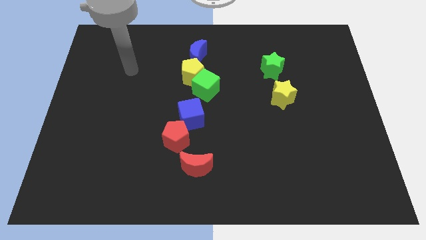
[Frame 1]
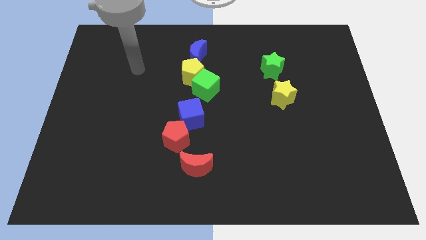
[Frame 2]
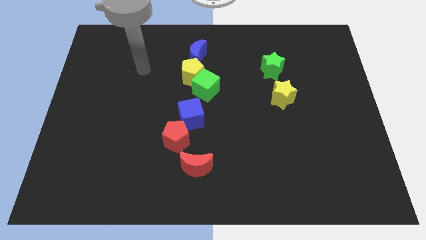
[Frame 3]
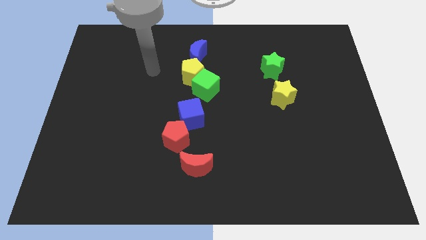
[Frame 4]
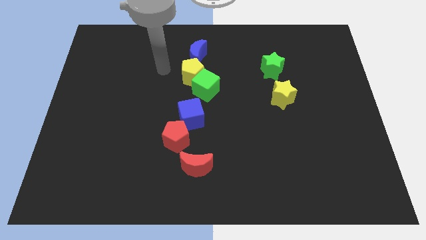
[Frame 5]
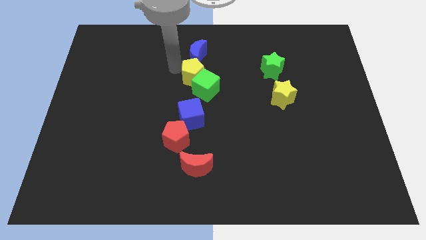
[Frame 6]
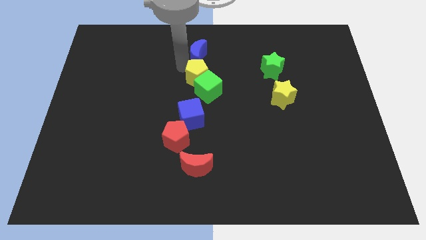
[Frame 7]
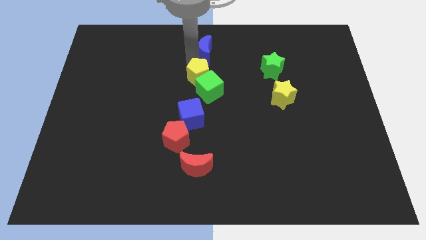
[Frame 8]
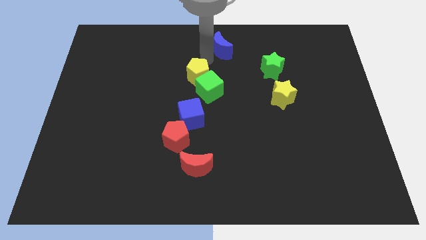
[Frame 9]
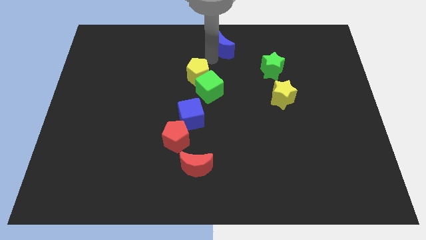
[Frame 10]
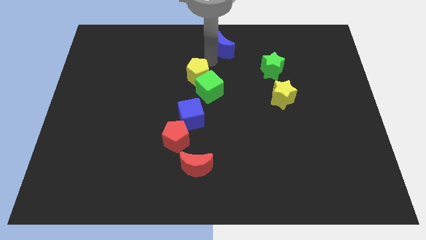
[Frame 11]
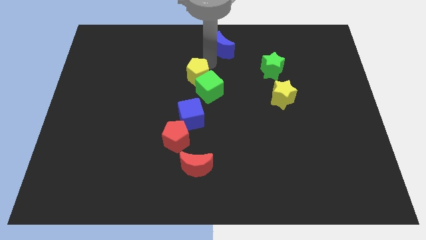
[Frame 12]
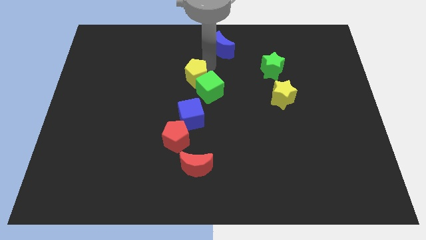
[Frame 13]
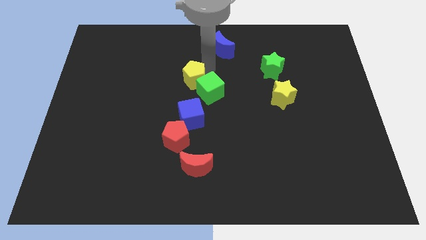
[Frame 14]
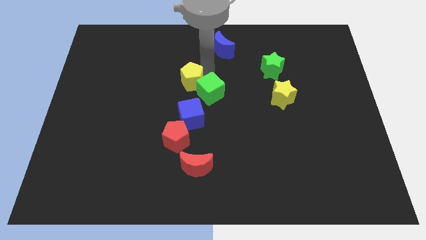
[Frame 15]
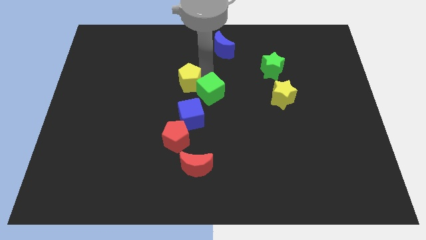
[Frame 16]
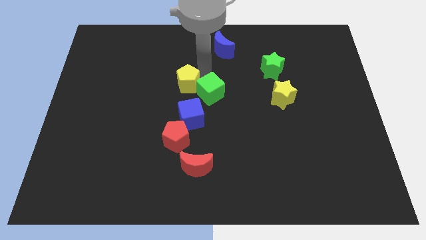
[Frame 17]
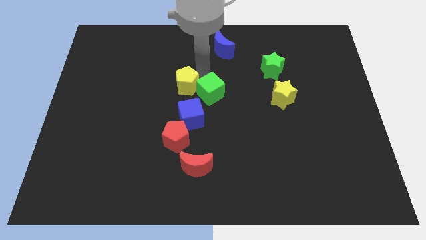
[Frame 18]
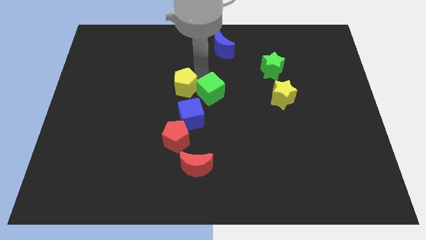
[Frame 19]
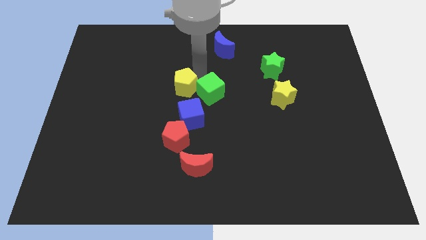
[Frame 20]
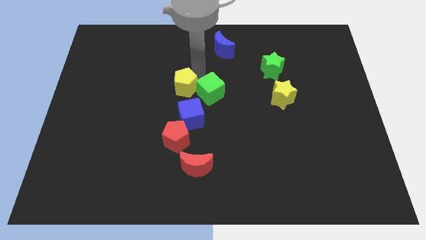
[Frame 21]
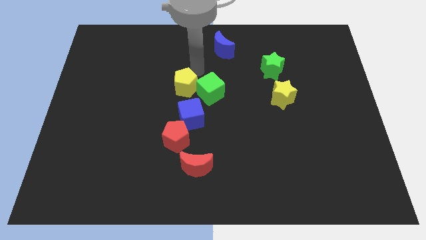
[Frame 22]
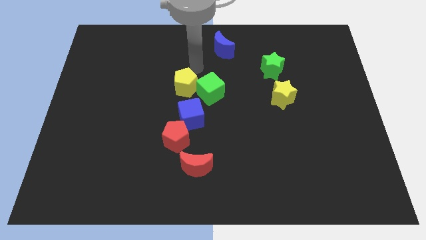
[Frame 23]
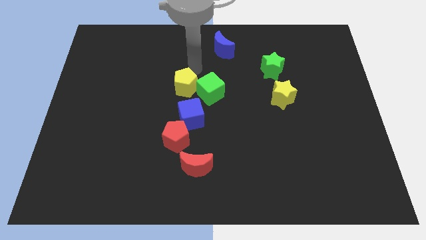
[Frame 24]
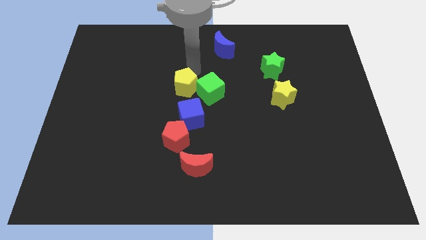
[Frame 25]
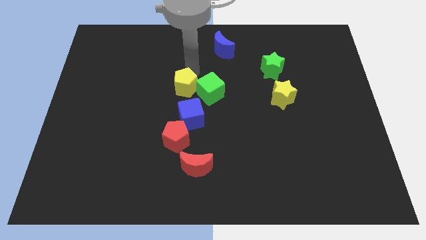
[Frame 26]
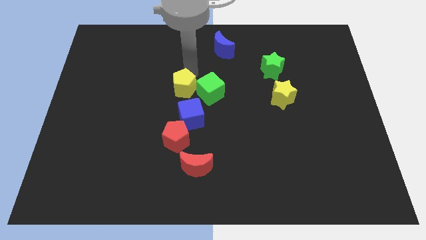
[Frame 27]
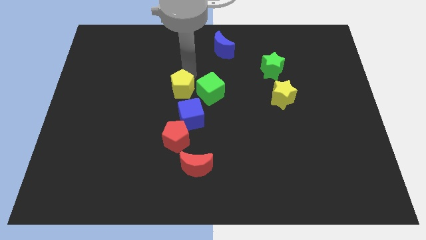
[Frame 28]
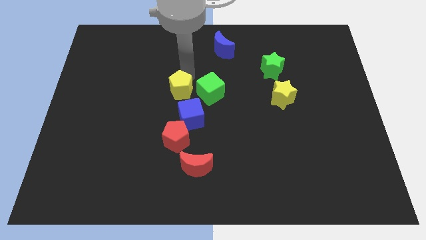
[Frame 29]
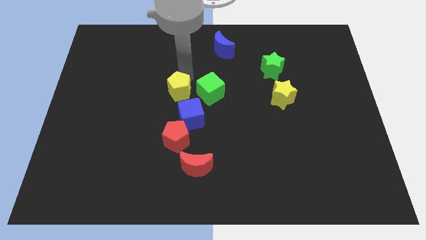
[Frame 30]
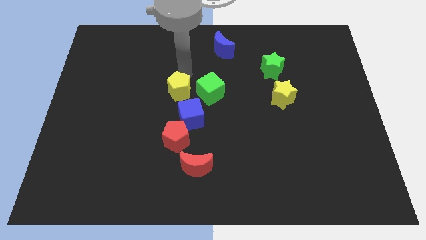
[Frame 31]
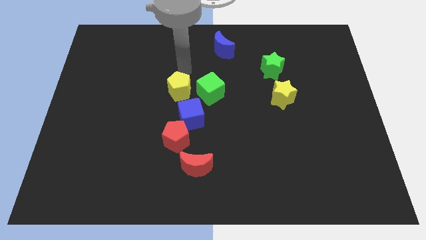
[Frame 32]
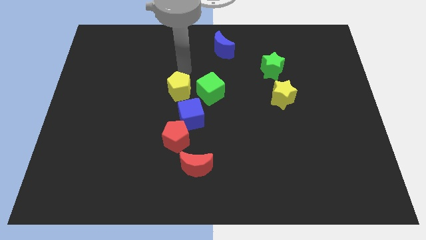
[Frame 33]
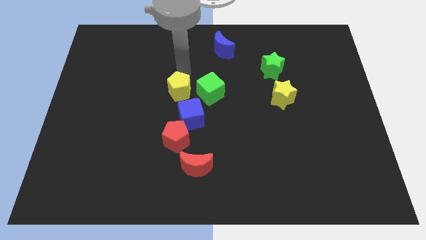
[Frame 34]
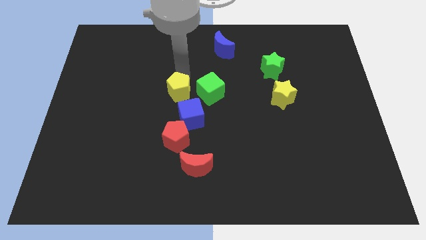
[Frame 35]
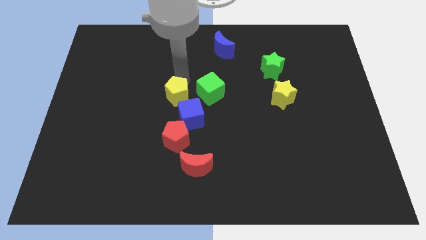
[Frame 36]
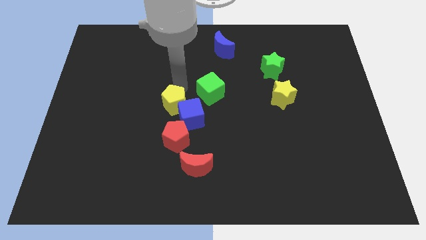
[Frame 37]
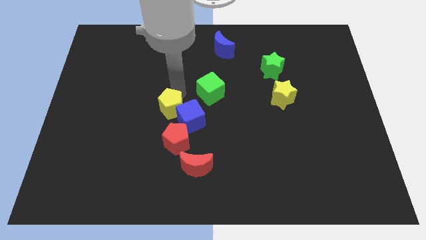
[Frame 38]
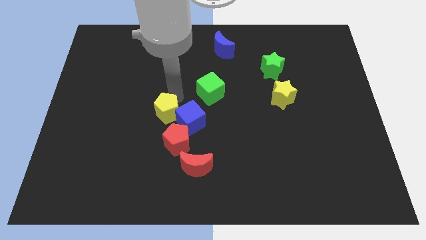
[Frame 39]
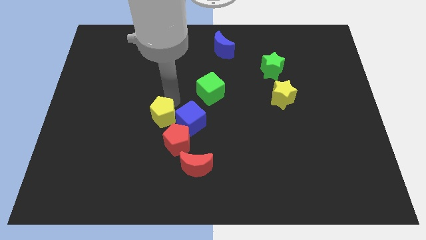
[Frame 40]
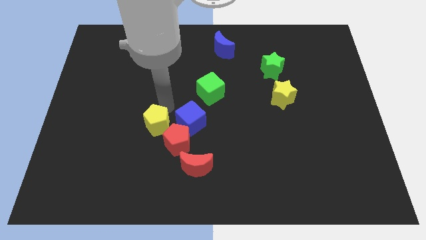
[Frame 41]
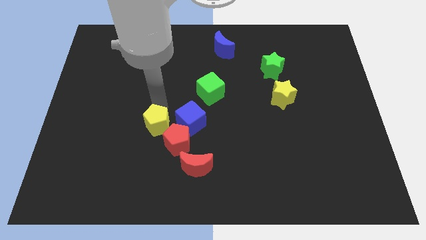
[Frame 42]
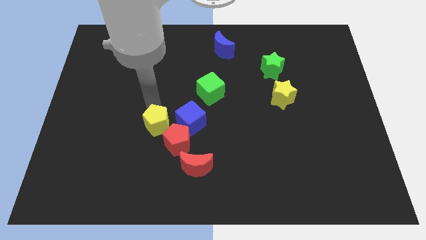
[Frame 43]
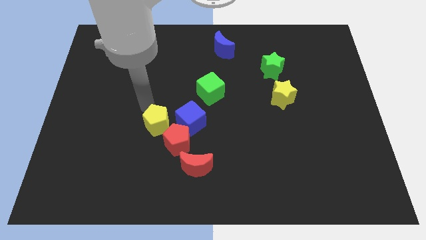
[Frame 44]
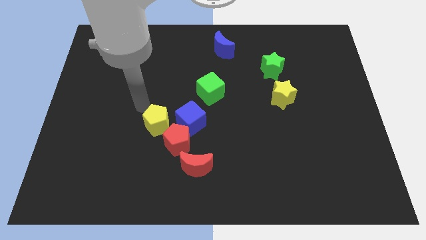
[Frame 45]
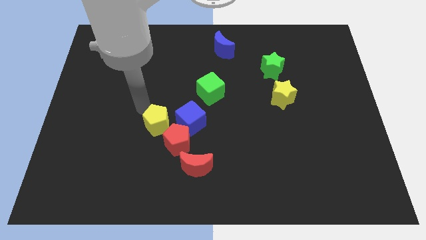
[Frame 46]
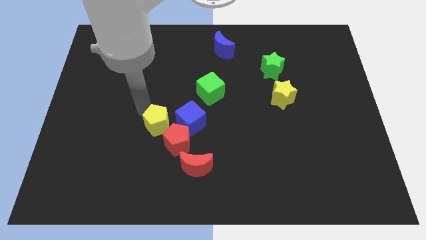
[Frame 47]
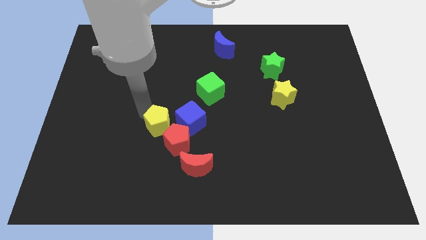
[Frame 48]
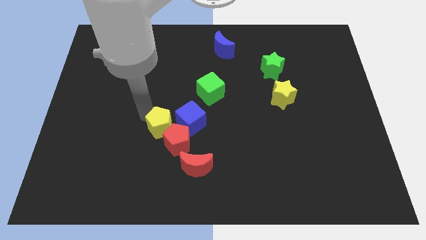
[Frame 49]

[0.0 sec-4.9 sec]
move the yellow pentagon close to the red pentagon

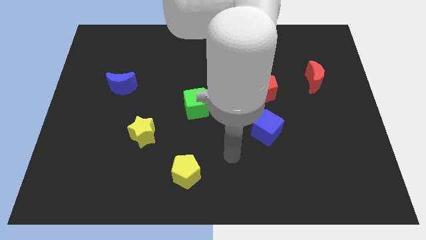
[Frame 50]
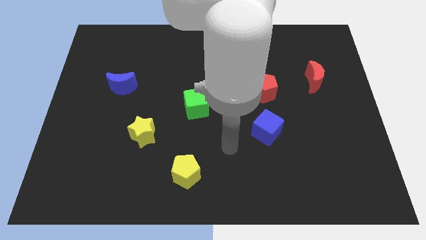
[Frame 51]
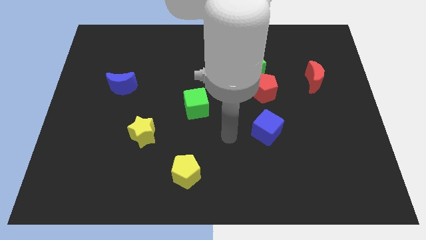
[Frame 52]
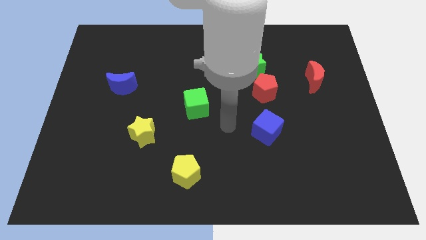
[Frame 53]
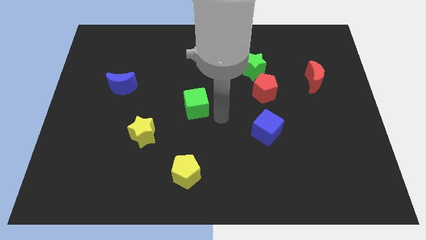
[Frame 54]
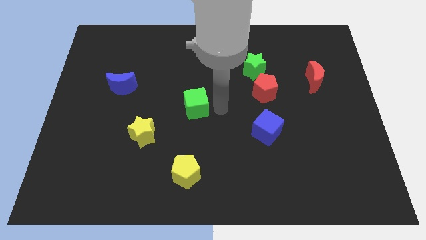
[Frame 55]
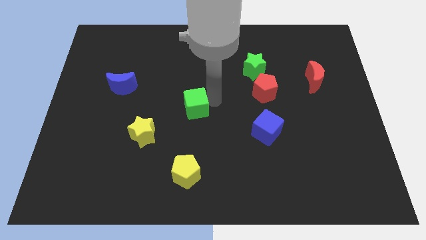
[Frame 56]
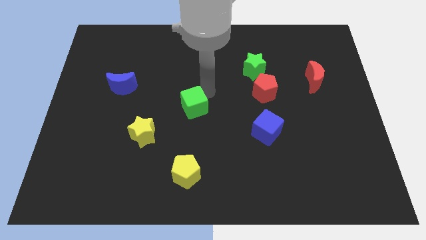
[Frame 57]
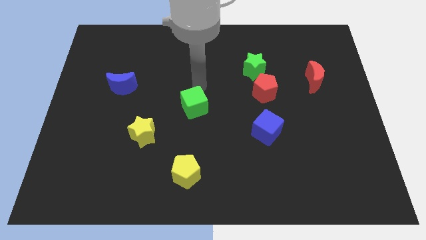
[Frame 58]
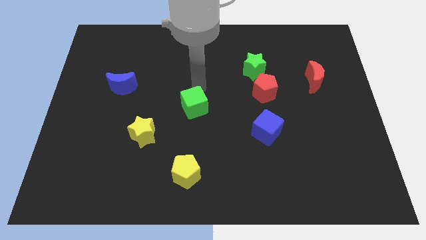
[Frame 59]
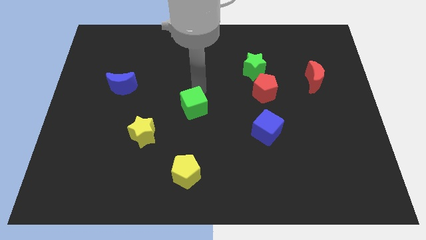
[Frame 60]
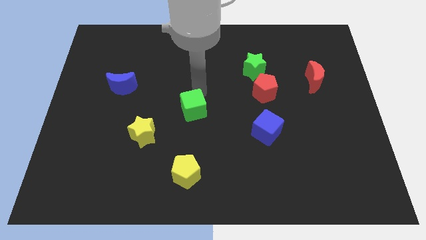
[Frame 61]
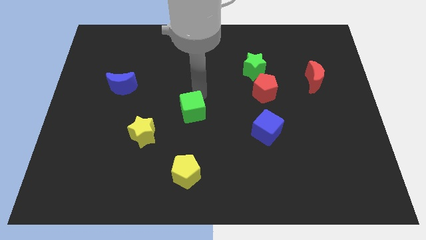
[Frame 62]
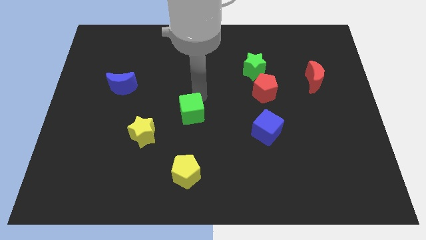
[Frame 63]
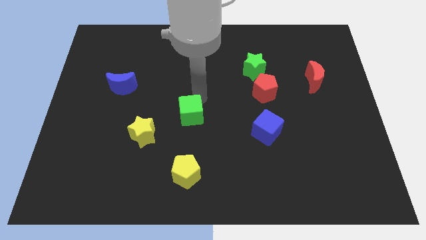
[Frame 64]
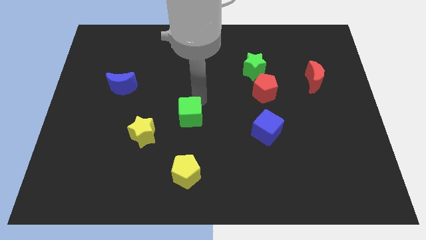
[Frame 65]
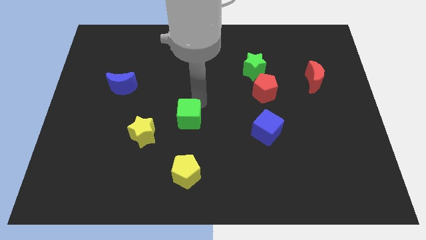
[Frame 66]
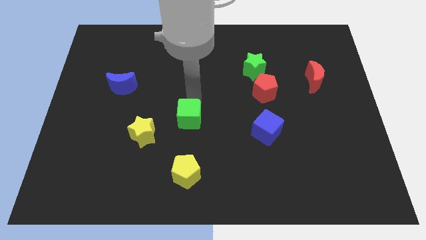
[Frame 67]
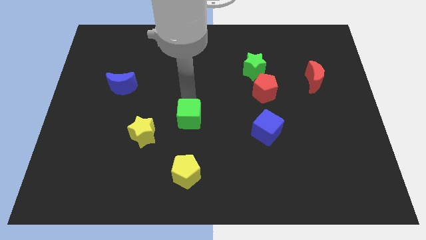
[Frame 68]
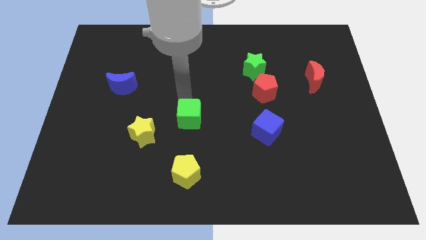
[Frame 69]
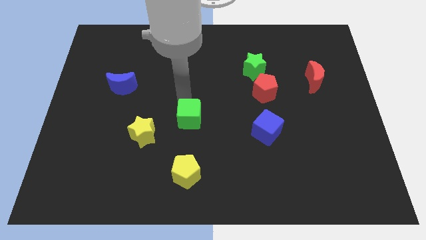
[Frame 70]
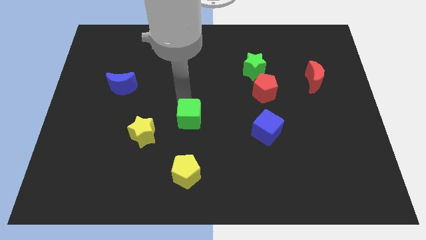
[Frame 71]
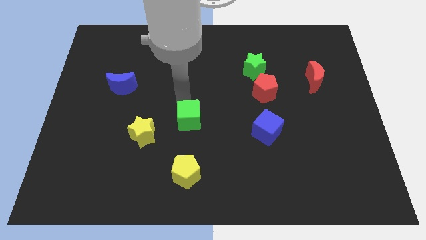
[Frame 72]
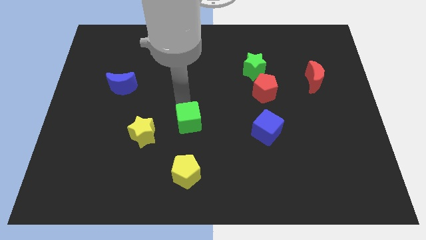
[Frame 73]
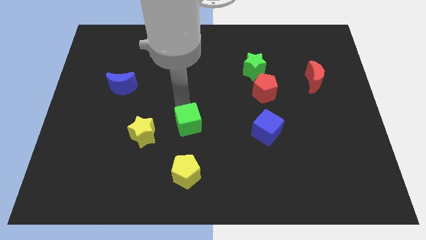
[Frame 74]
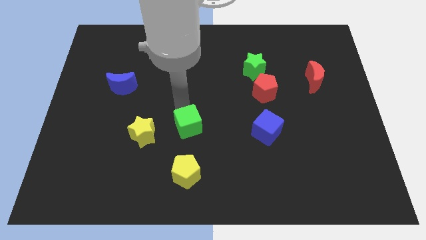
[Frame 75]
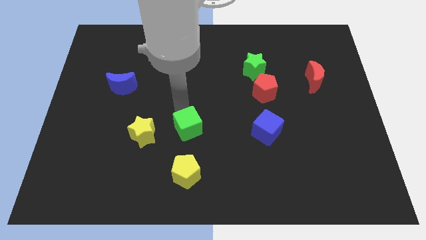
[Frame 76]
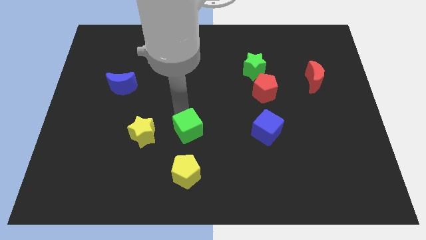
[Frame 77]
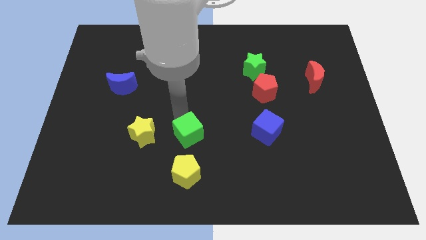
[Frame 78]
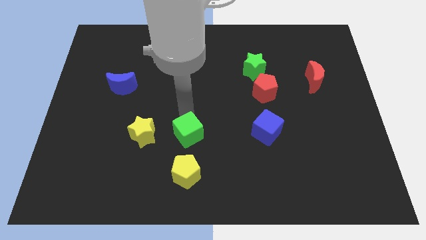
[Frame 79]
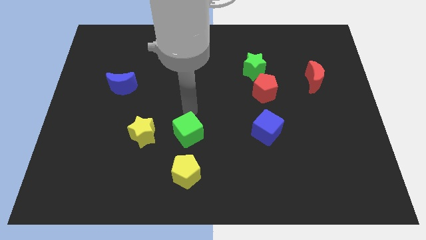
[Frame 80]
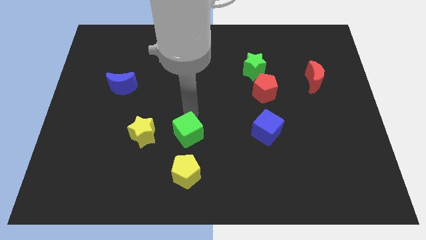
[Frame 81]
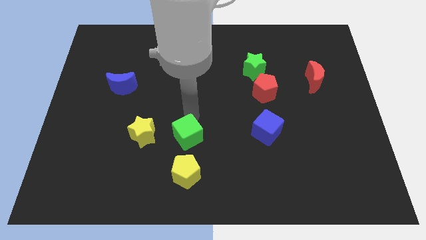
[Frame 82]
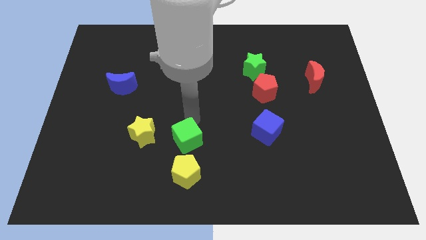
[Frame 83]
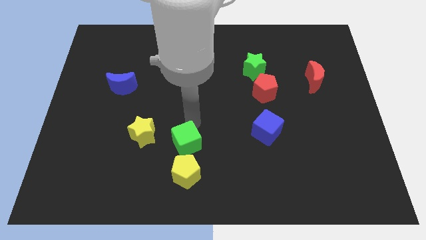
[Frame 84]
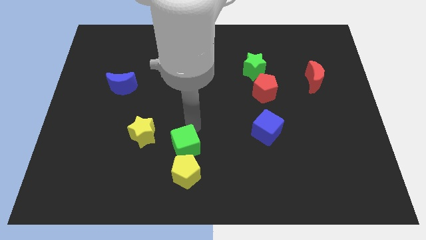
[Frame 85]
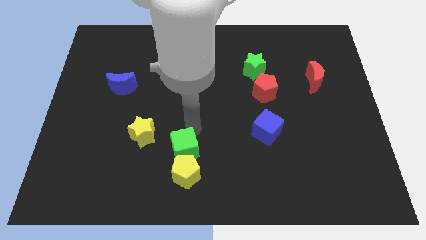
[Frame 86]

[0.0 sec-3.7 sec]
move the green cube close to the yellow pentagon
